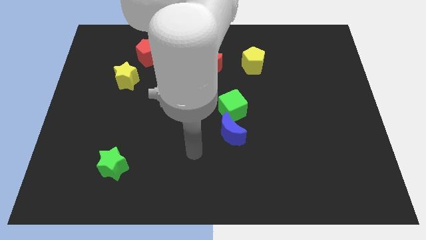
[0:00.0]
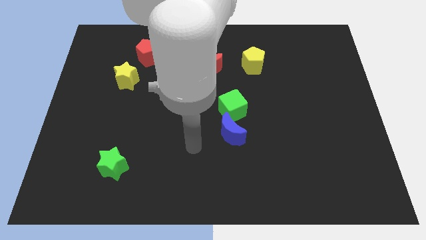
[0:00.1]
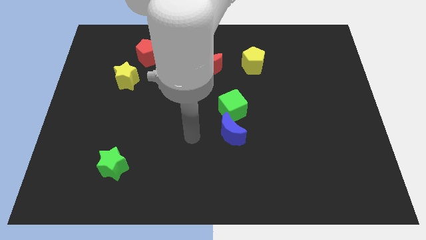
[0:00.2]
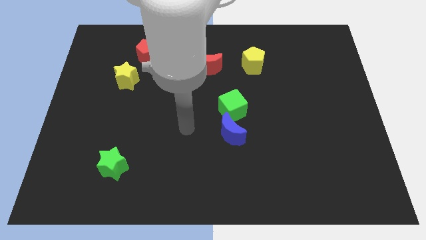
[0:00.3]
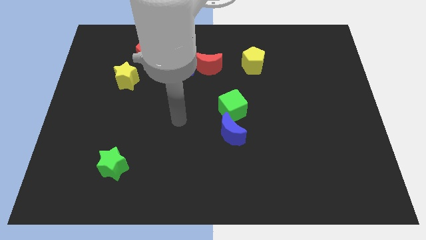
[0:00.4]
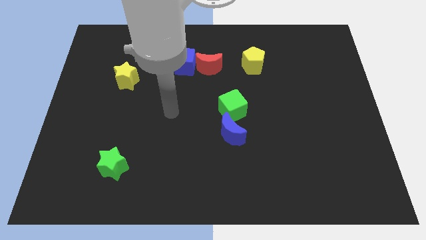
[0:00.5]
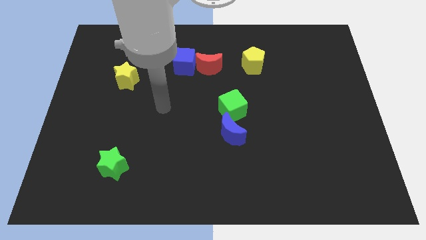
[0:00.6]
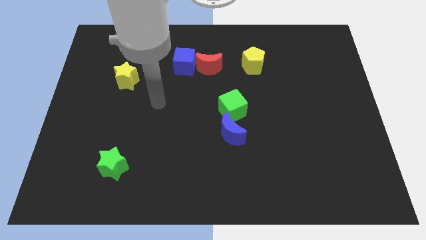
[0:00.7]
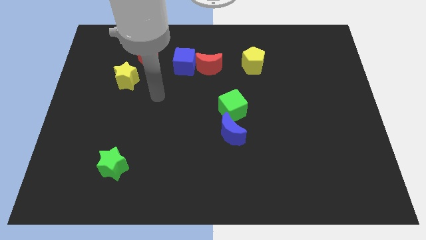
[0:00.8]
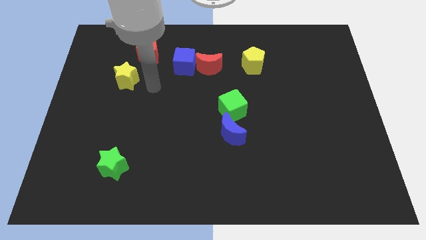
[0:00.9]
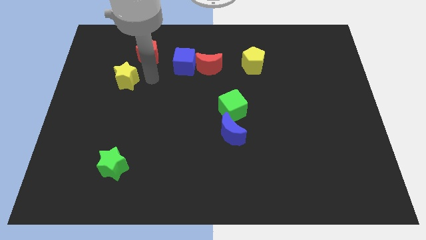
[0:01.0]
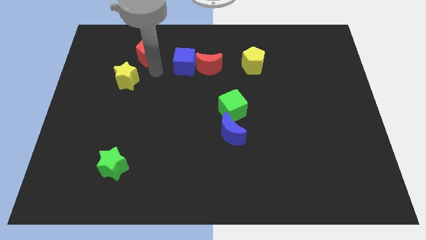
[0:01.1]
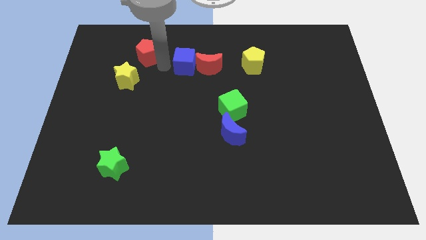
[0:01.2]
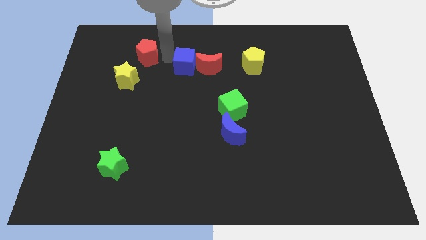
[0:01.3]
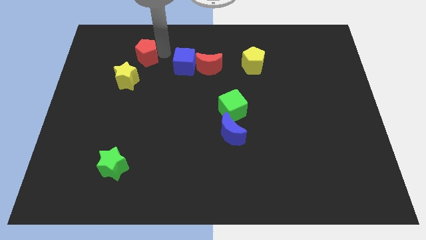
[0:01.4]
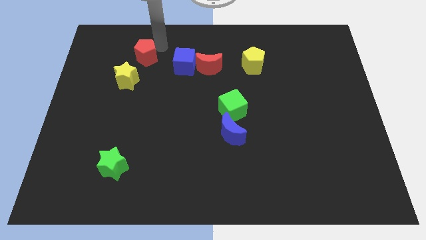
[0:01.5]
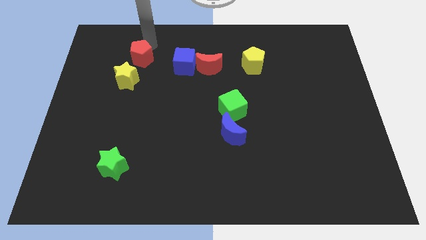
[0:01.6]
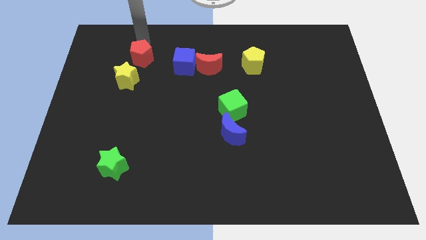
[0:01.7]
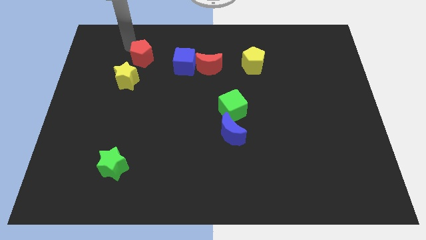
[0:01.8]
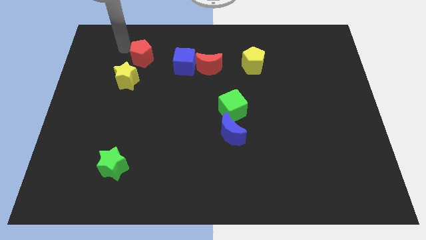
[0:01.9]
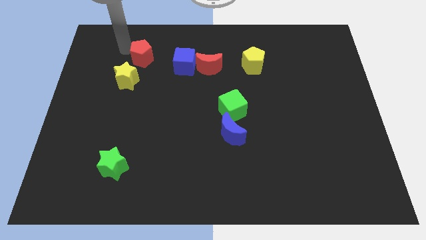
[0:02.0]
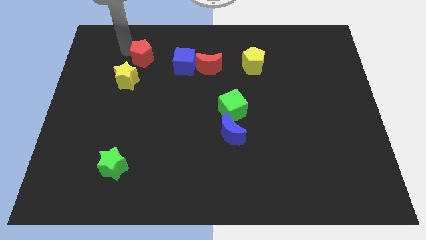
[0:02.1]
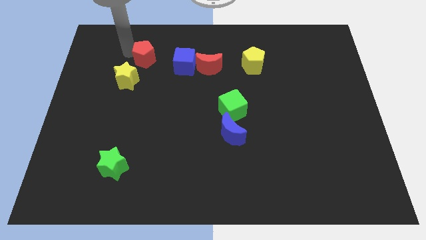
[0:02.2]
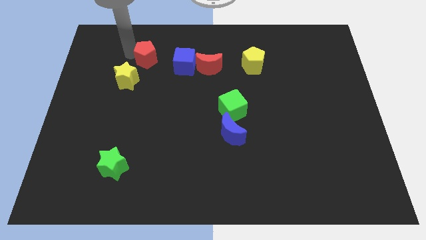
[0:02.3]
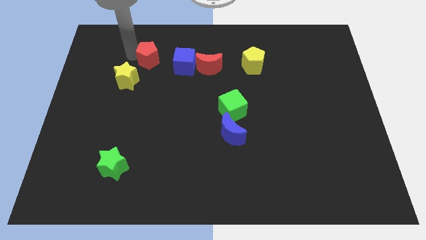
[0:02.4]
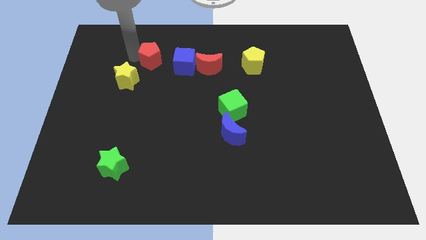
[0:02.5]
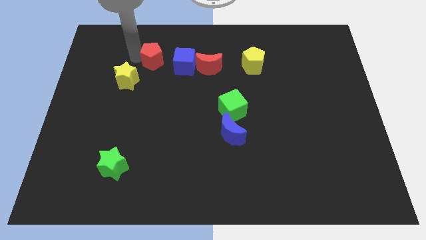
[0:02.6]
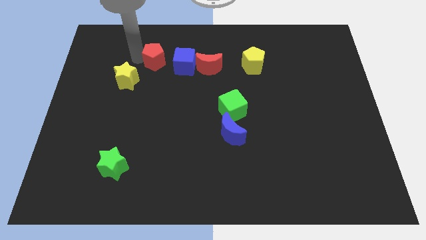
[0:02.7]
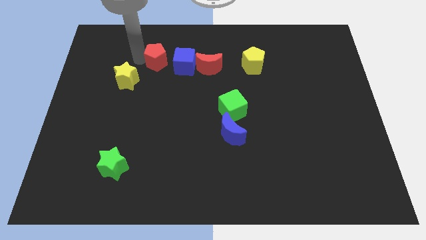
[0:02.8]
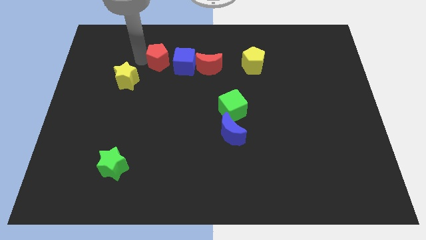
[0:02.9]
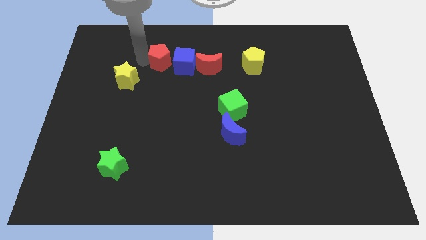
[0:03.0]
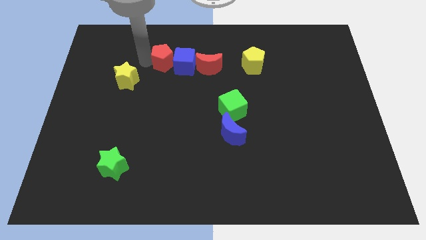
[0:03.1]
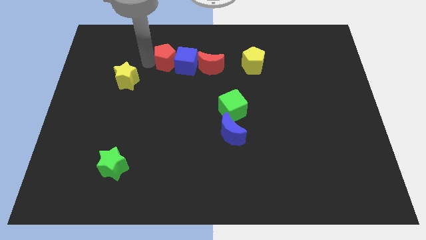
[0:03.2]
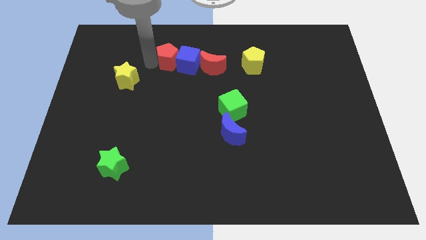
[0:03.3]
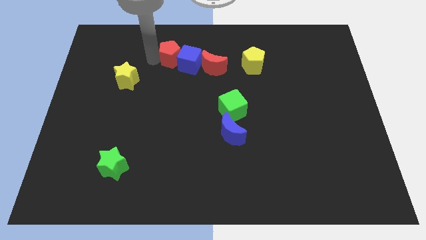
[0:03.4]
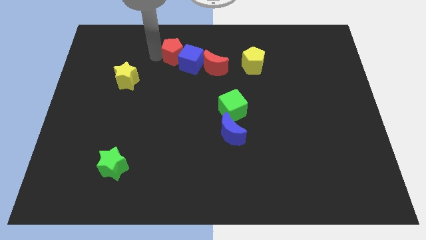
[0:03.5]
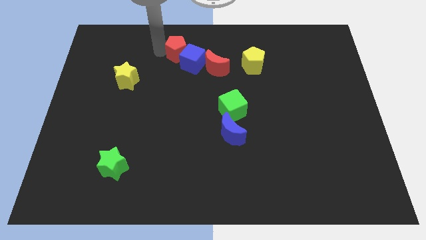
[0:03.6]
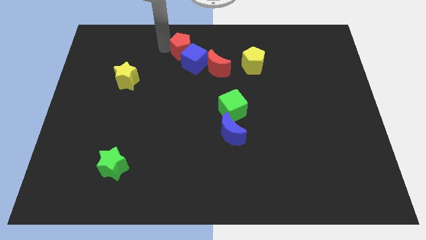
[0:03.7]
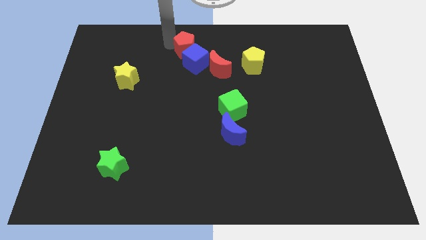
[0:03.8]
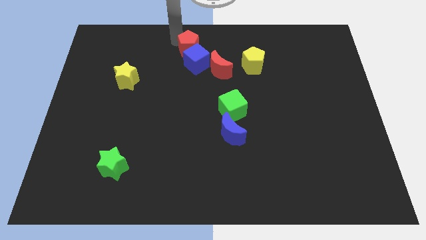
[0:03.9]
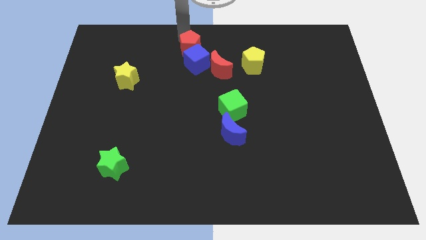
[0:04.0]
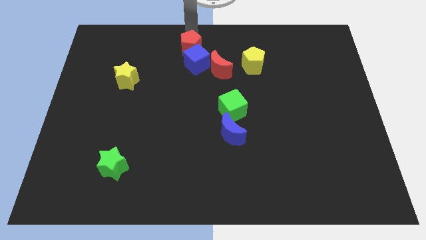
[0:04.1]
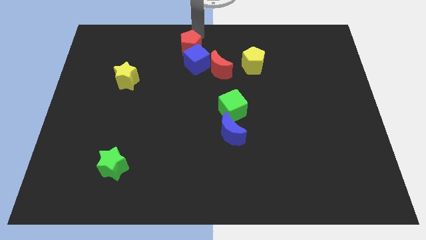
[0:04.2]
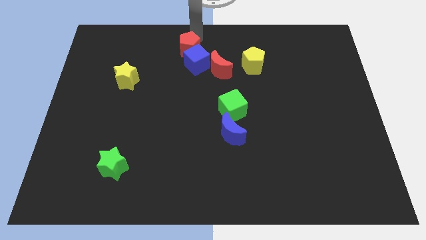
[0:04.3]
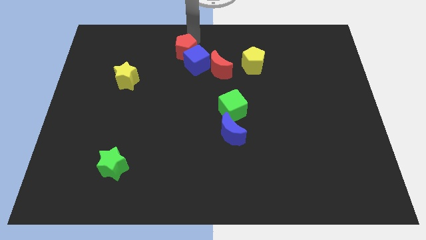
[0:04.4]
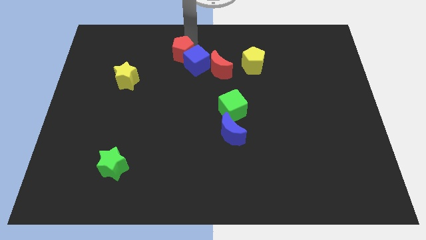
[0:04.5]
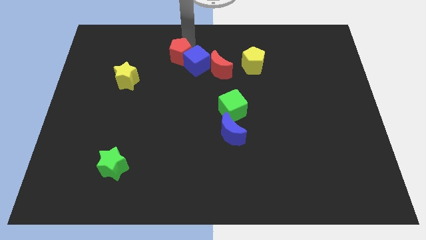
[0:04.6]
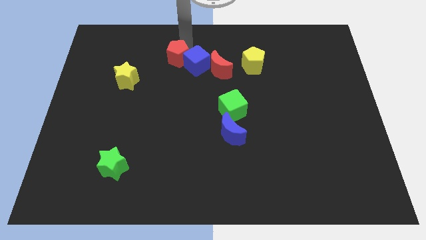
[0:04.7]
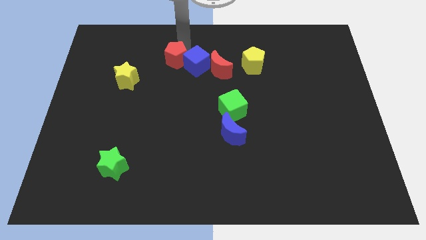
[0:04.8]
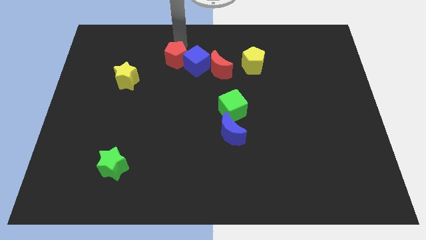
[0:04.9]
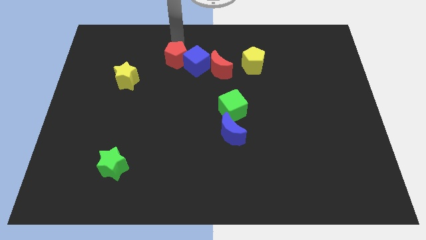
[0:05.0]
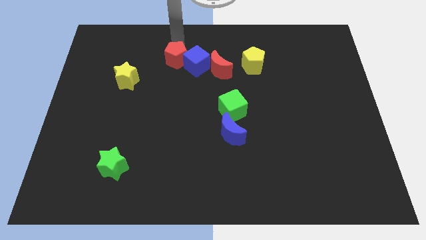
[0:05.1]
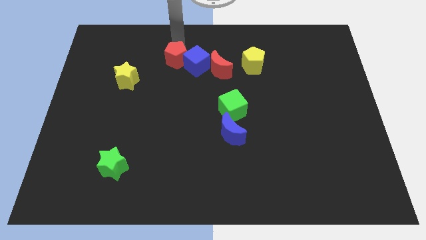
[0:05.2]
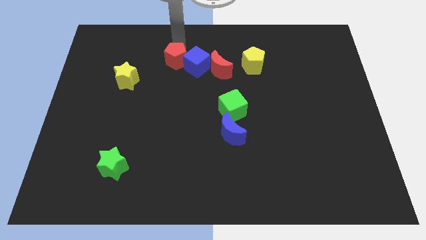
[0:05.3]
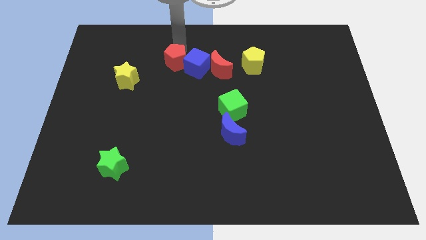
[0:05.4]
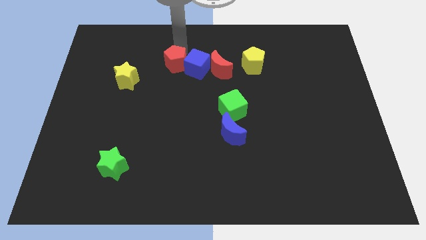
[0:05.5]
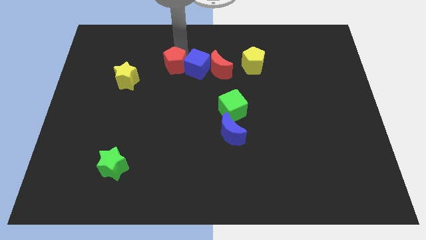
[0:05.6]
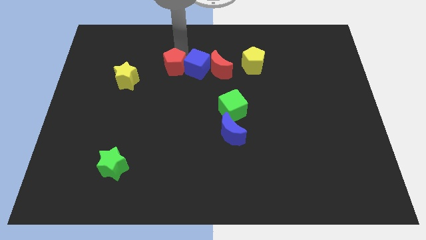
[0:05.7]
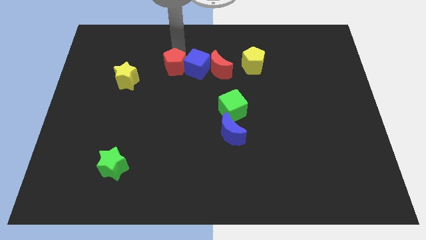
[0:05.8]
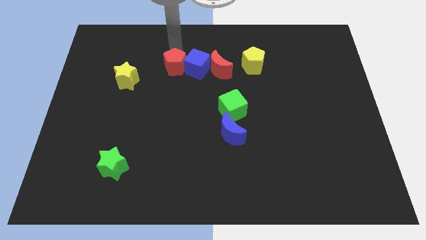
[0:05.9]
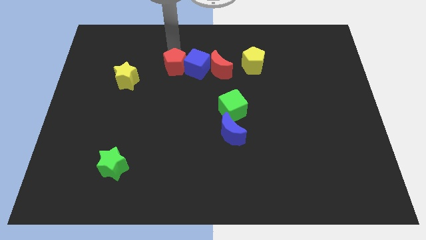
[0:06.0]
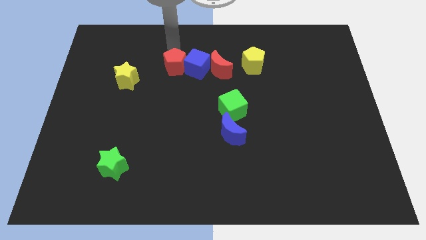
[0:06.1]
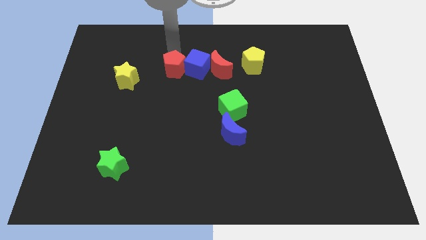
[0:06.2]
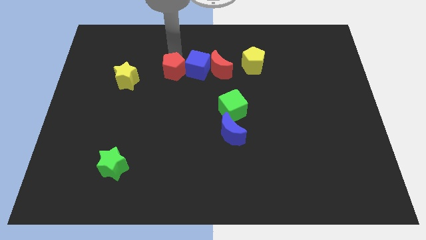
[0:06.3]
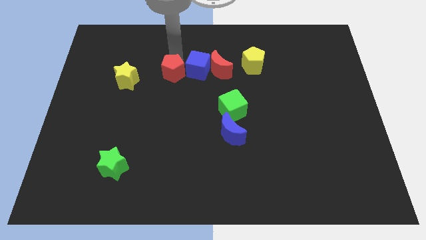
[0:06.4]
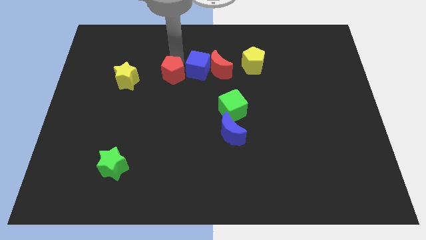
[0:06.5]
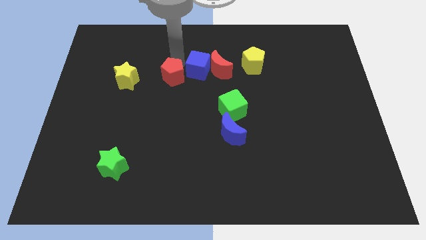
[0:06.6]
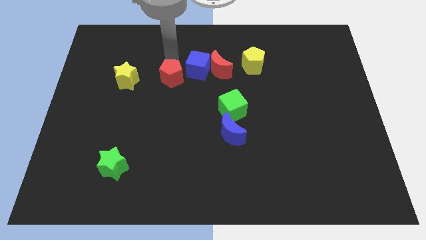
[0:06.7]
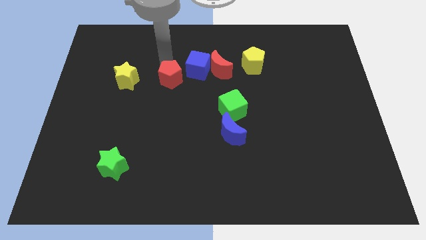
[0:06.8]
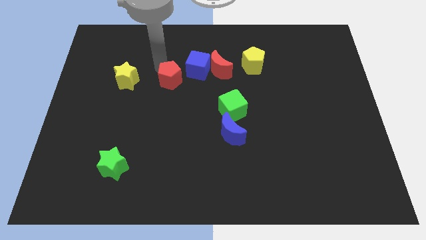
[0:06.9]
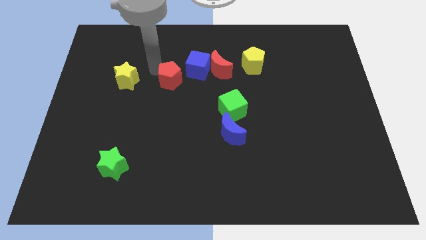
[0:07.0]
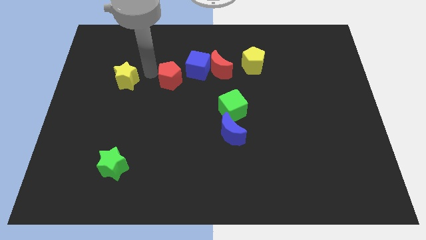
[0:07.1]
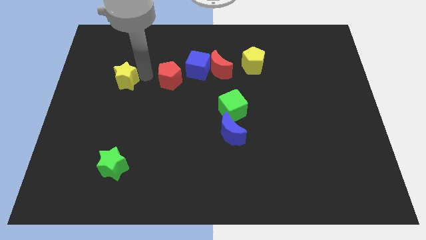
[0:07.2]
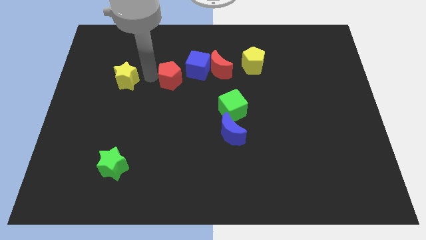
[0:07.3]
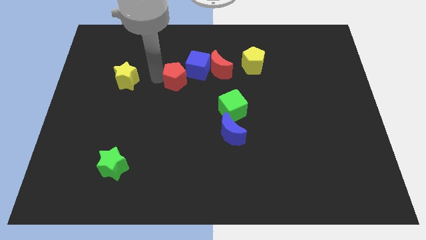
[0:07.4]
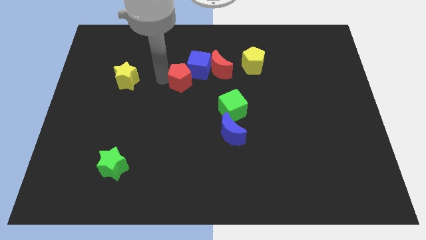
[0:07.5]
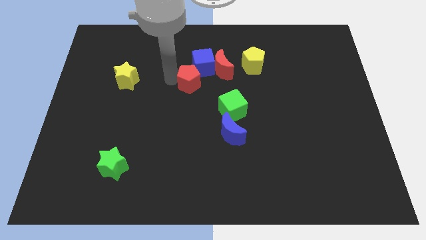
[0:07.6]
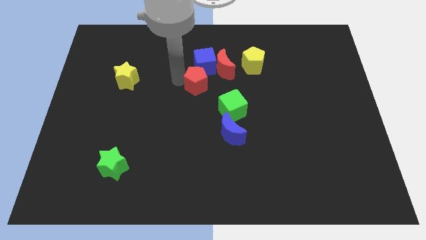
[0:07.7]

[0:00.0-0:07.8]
push the red pentagon to the top left side of the green cube

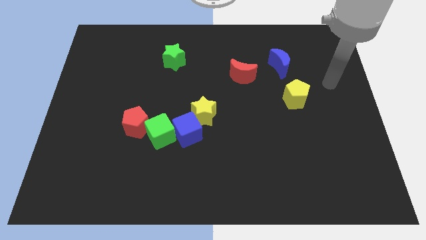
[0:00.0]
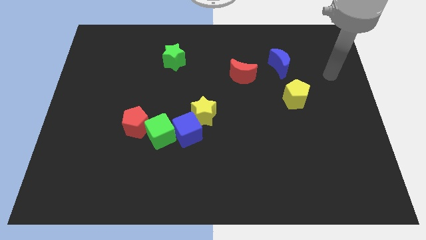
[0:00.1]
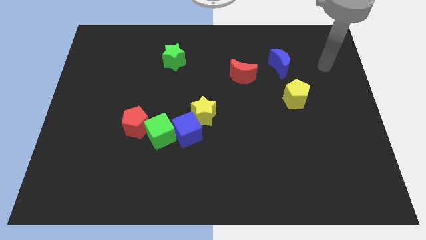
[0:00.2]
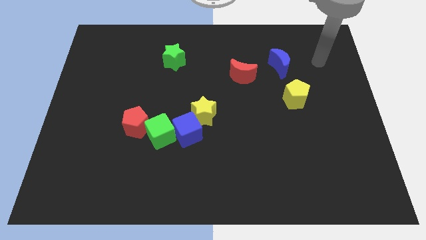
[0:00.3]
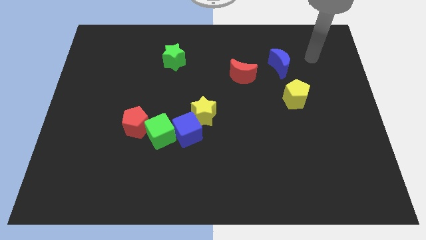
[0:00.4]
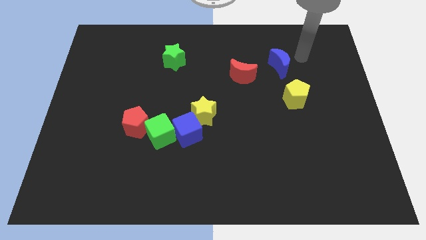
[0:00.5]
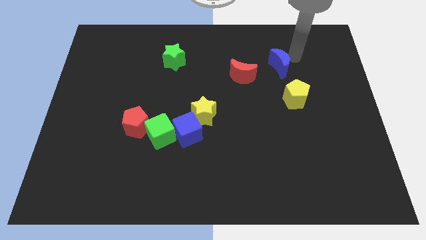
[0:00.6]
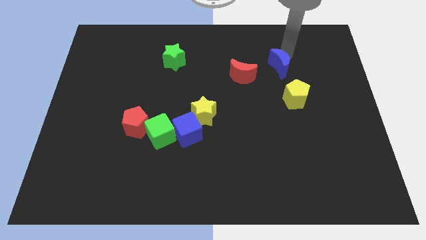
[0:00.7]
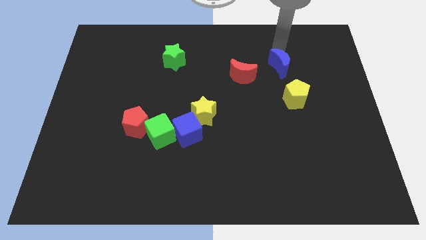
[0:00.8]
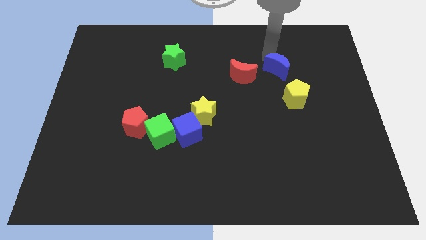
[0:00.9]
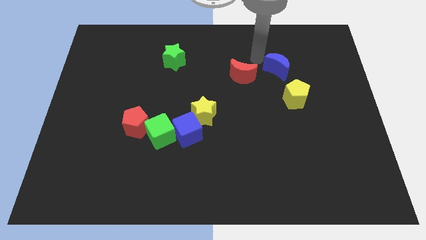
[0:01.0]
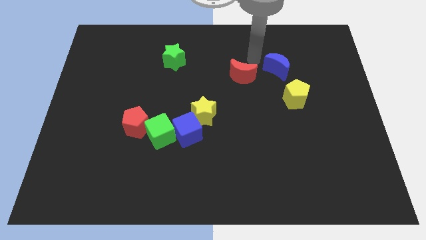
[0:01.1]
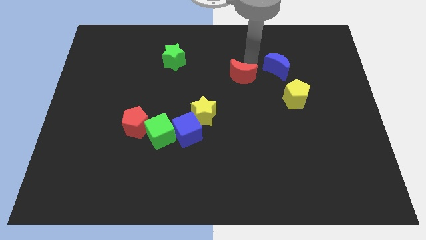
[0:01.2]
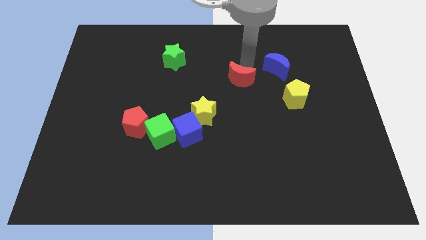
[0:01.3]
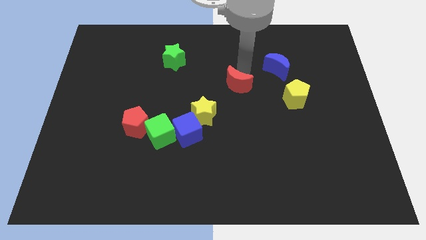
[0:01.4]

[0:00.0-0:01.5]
put the red moon diagonally up and to the right of the yellow star
